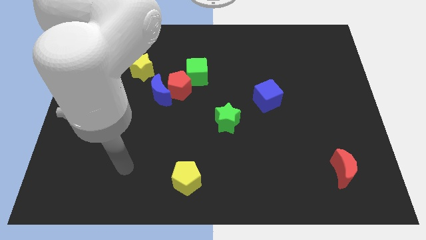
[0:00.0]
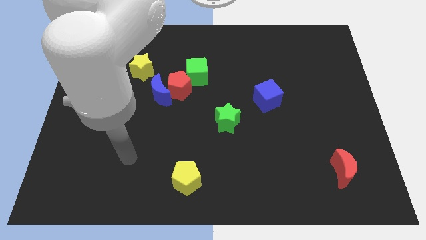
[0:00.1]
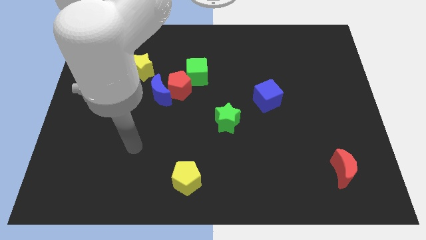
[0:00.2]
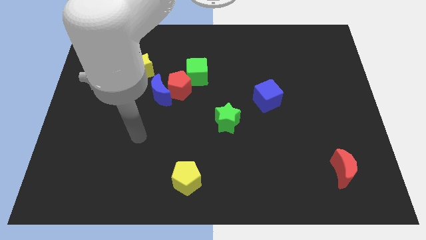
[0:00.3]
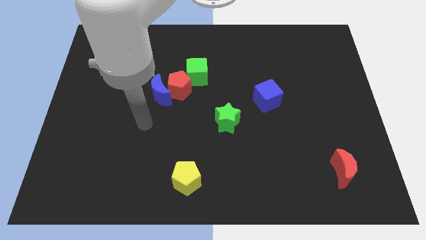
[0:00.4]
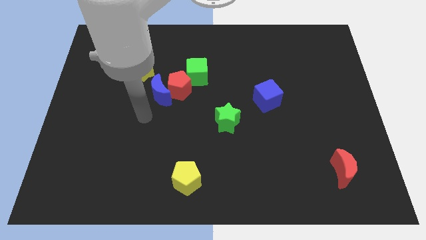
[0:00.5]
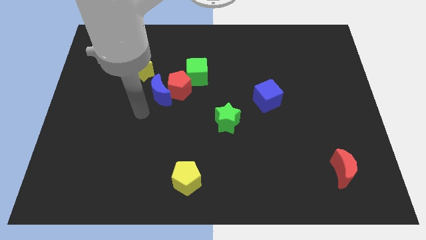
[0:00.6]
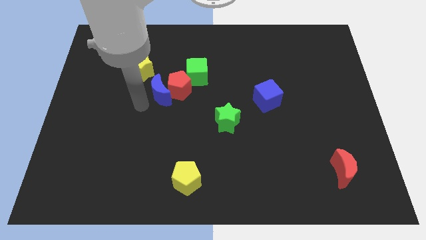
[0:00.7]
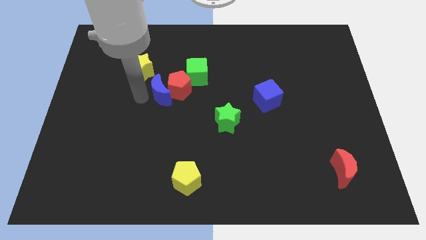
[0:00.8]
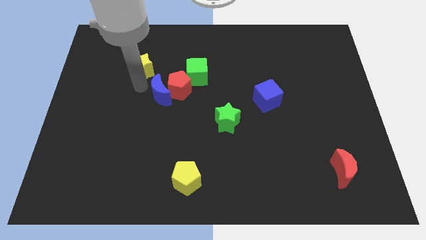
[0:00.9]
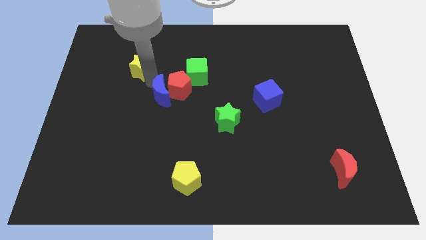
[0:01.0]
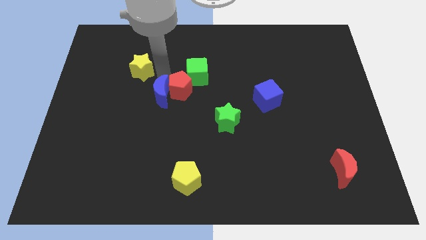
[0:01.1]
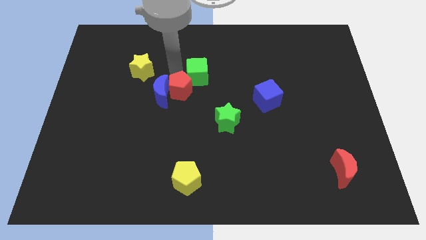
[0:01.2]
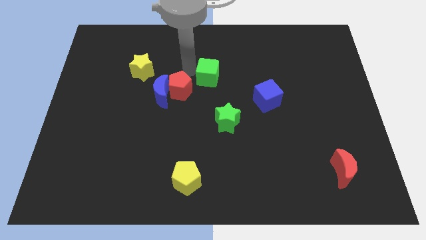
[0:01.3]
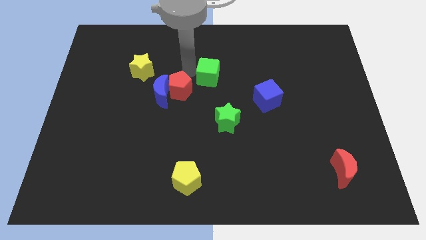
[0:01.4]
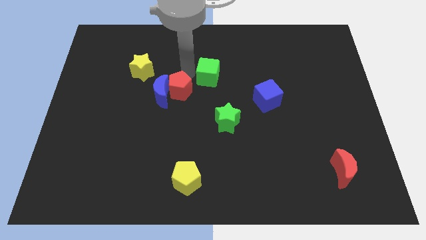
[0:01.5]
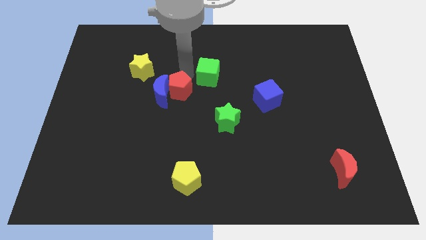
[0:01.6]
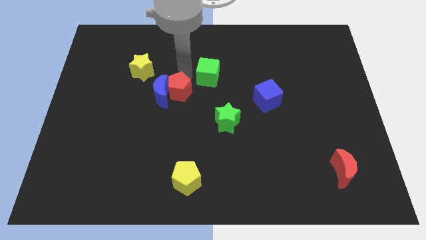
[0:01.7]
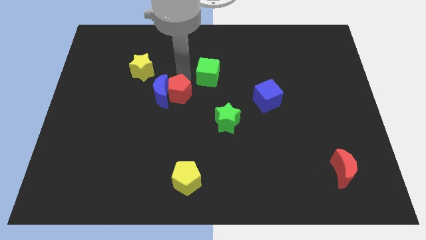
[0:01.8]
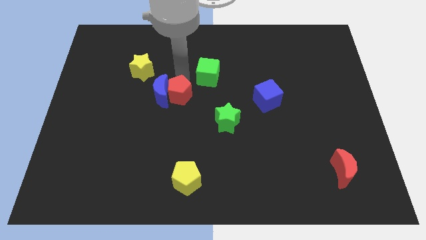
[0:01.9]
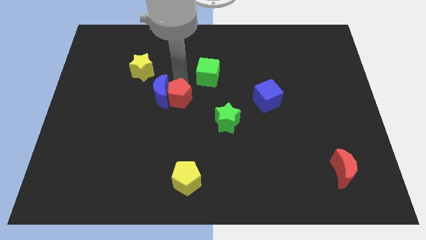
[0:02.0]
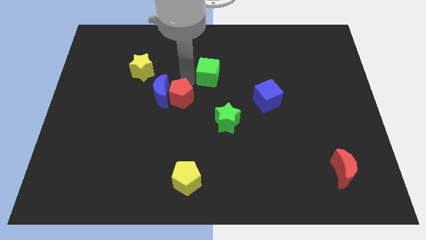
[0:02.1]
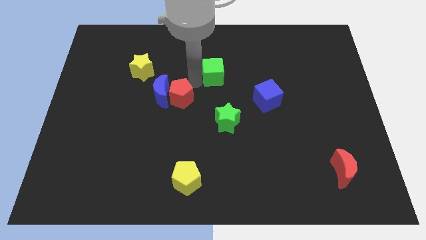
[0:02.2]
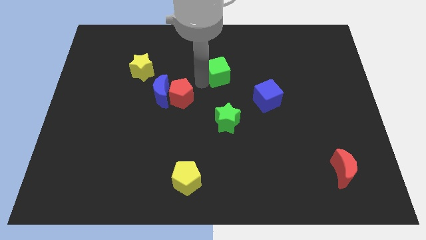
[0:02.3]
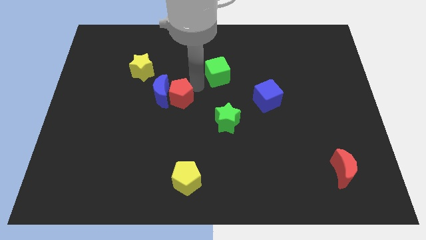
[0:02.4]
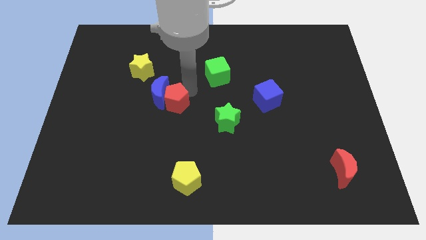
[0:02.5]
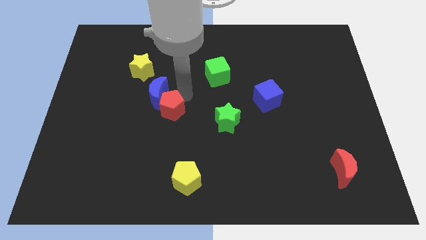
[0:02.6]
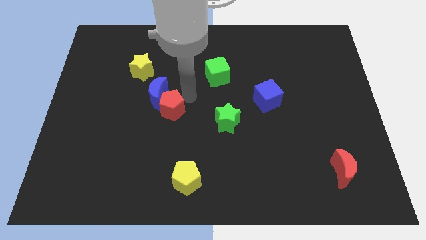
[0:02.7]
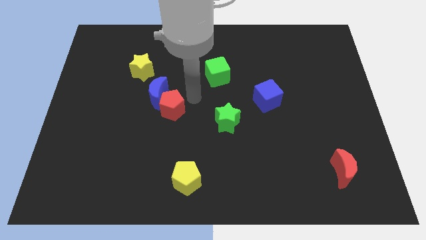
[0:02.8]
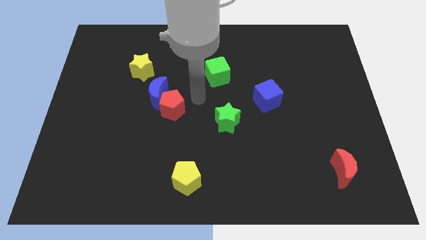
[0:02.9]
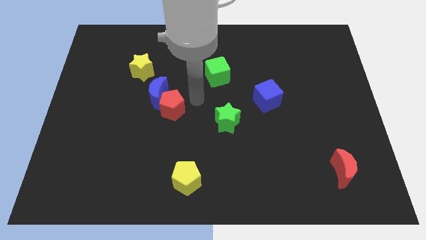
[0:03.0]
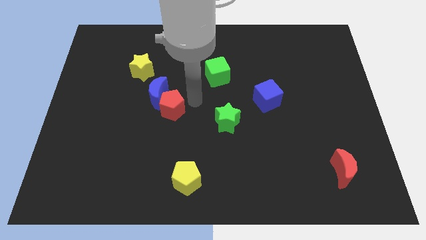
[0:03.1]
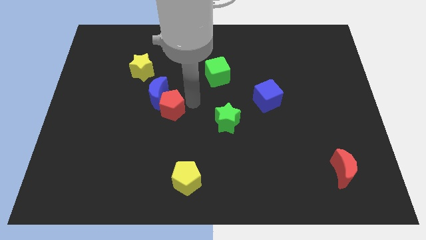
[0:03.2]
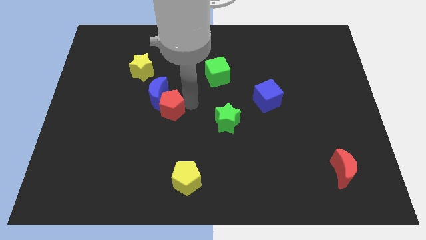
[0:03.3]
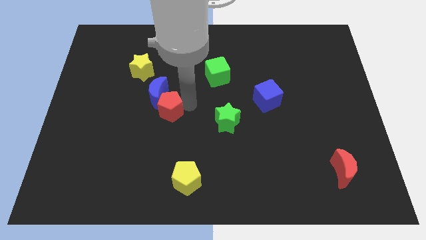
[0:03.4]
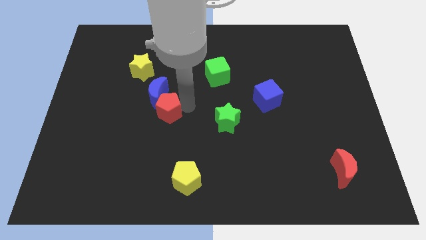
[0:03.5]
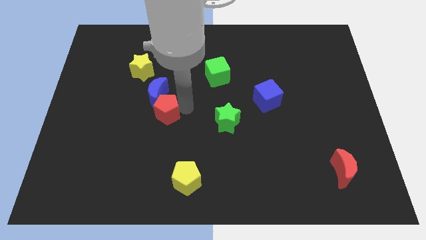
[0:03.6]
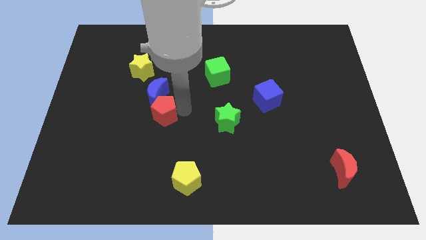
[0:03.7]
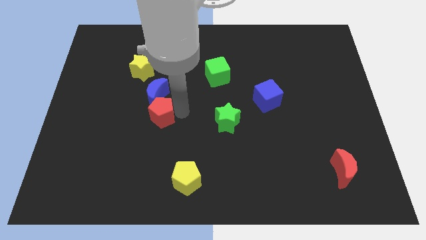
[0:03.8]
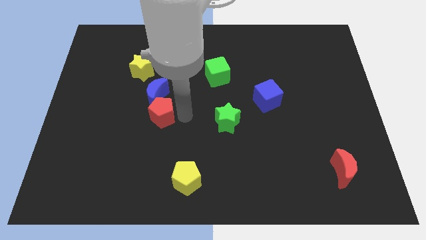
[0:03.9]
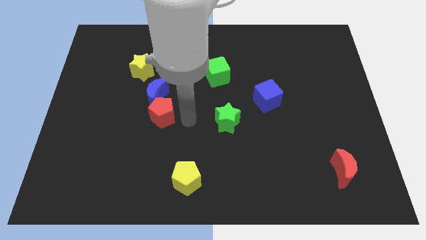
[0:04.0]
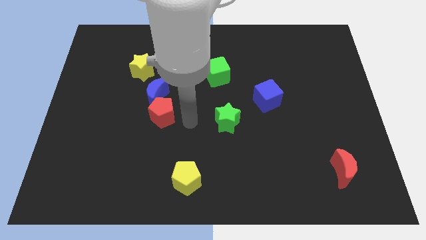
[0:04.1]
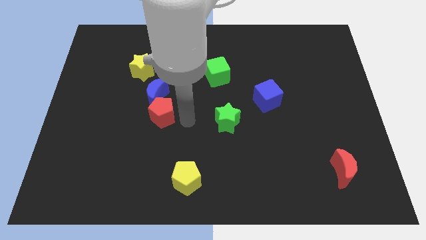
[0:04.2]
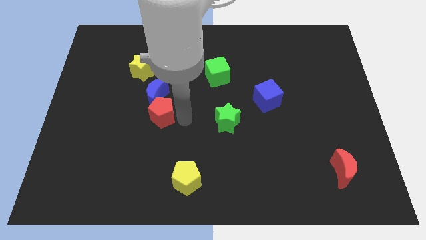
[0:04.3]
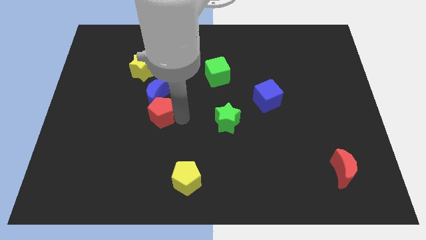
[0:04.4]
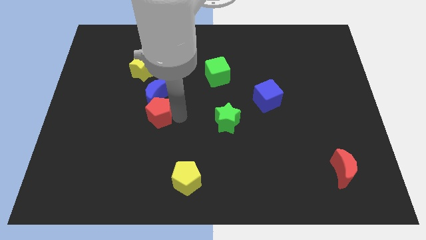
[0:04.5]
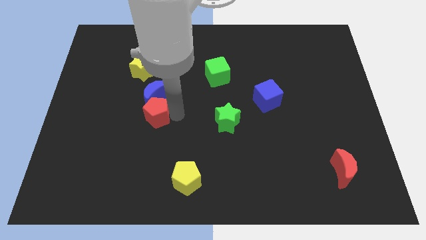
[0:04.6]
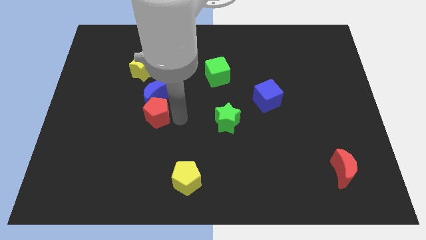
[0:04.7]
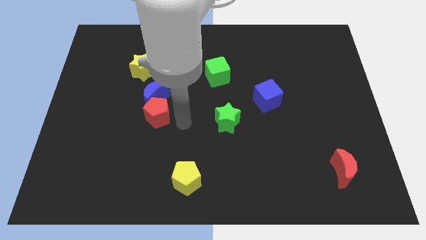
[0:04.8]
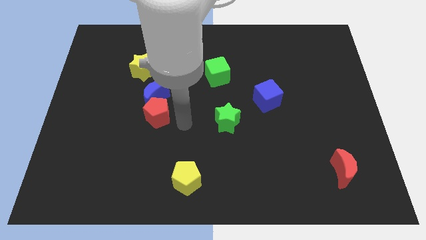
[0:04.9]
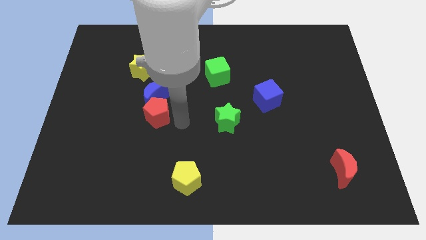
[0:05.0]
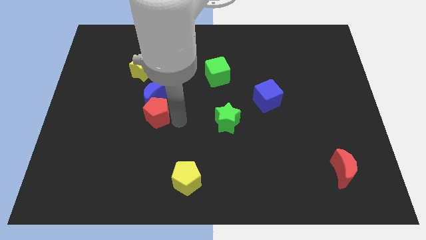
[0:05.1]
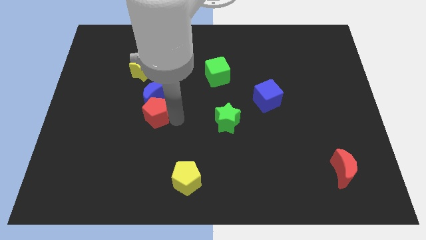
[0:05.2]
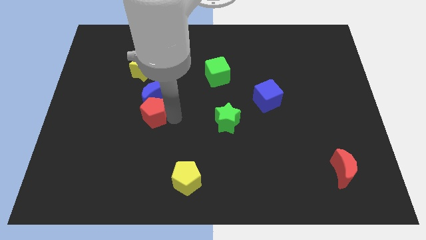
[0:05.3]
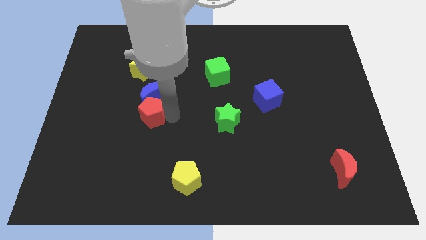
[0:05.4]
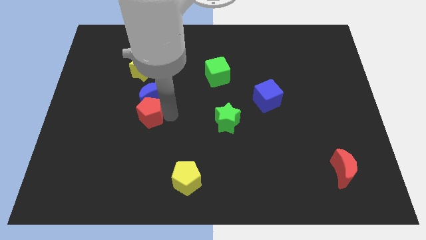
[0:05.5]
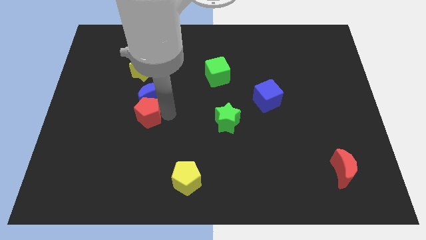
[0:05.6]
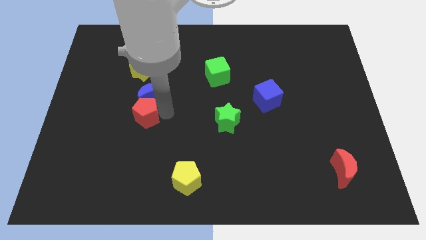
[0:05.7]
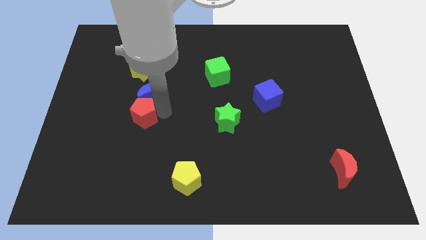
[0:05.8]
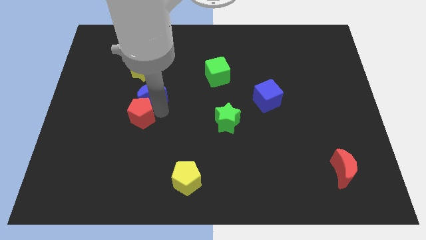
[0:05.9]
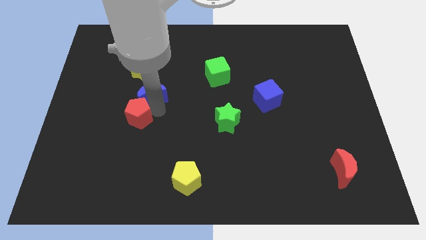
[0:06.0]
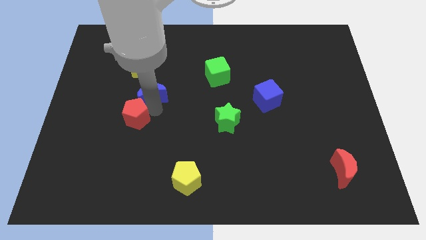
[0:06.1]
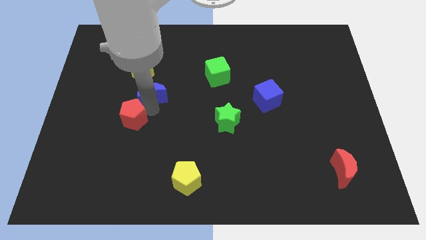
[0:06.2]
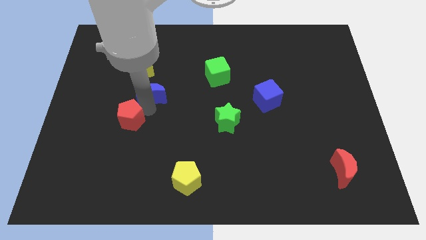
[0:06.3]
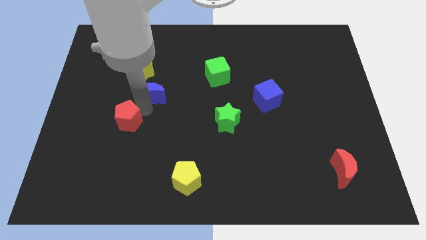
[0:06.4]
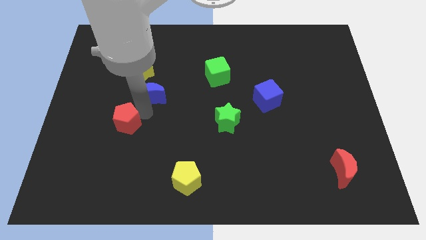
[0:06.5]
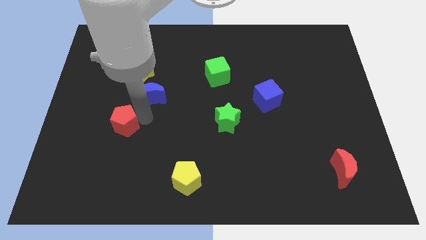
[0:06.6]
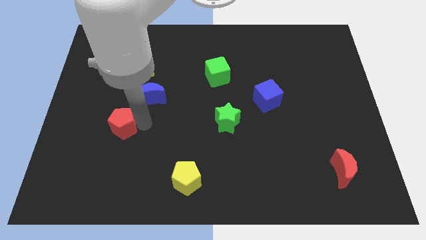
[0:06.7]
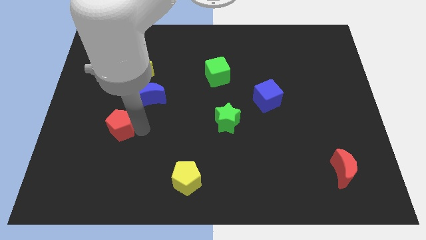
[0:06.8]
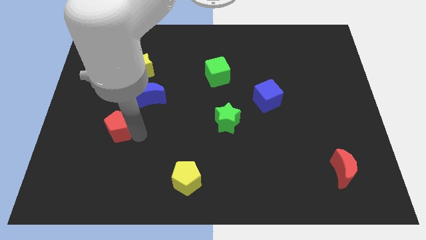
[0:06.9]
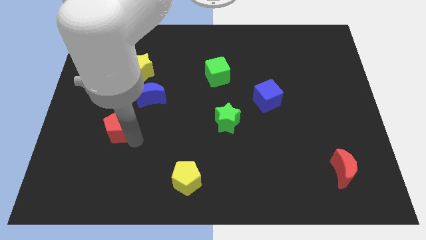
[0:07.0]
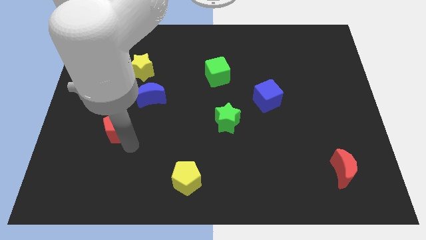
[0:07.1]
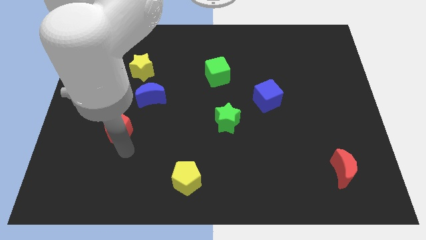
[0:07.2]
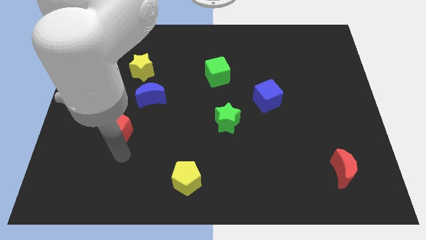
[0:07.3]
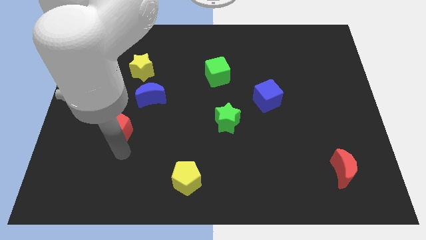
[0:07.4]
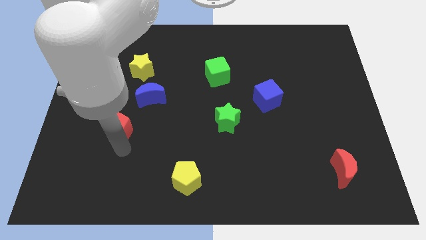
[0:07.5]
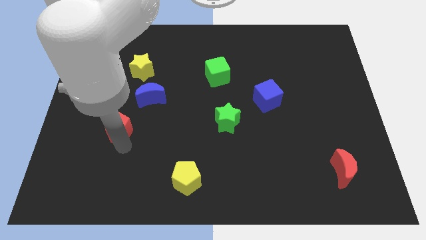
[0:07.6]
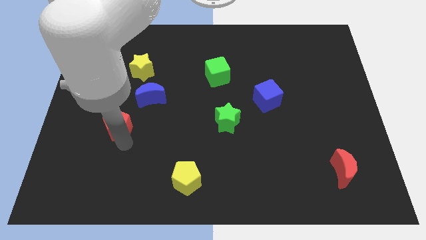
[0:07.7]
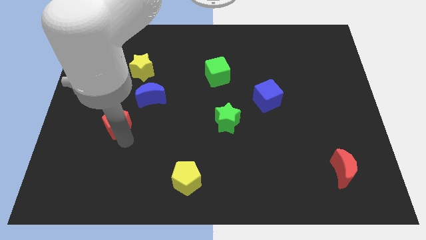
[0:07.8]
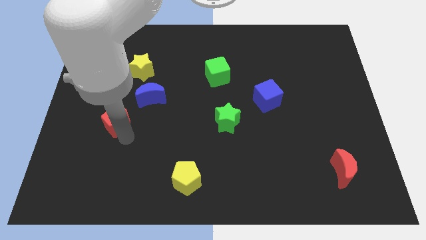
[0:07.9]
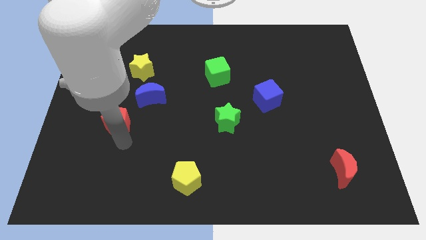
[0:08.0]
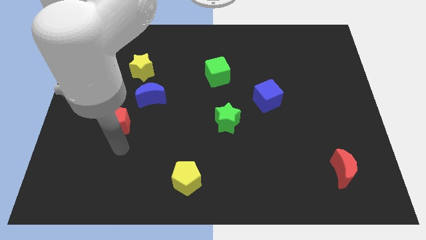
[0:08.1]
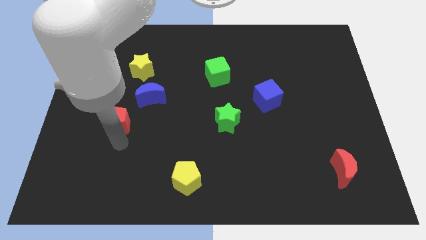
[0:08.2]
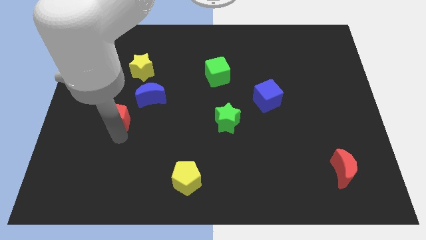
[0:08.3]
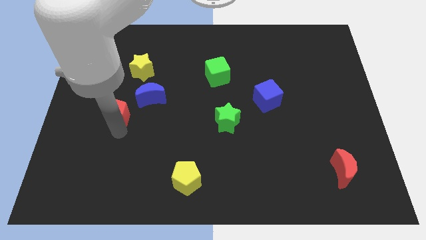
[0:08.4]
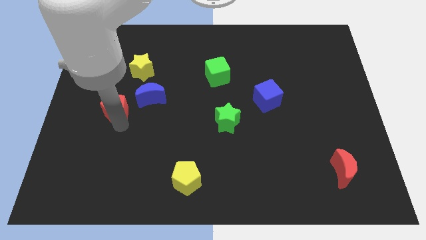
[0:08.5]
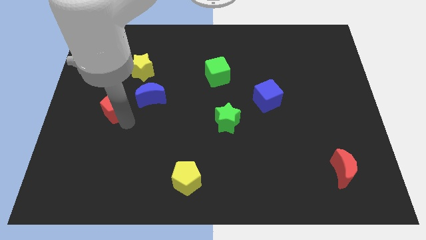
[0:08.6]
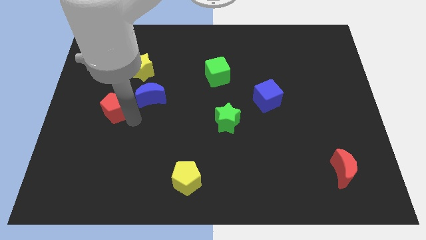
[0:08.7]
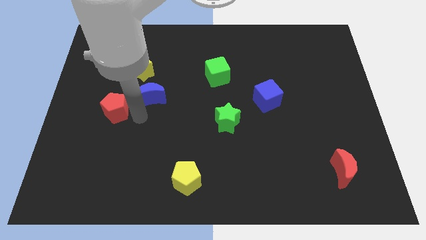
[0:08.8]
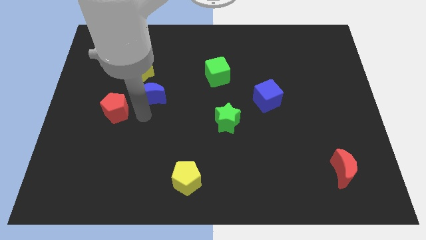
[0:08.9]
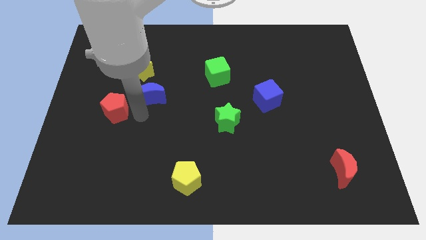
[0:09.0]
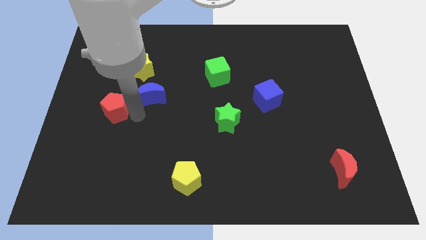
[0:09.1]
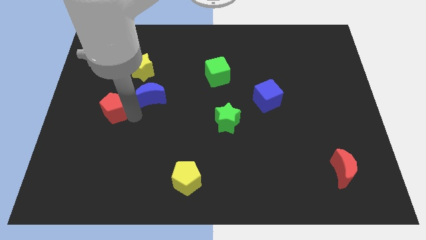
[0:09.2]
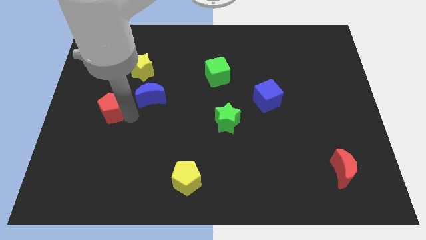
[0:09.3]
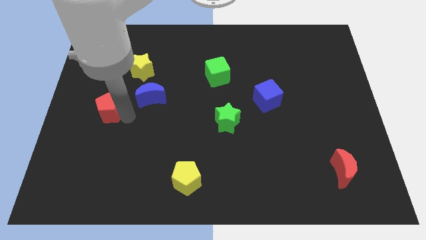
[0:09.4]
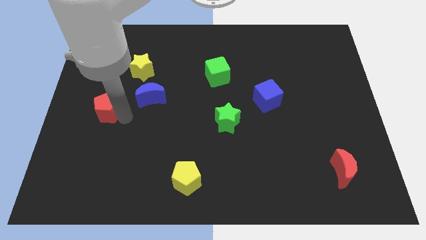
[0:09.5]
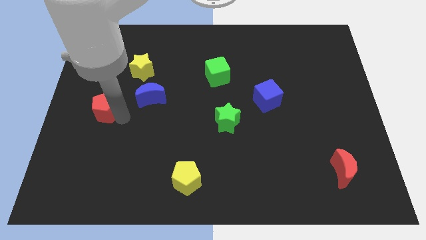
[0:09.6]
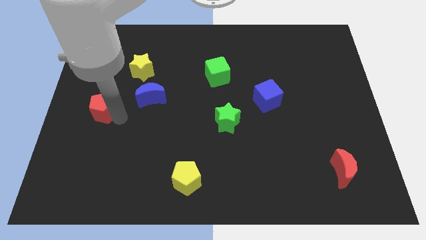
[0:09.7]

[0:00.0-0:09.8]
slide the red pentagon to the left side of the board
